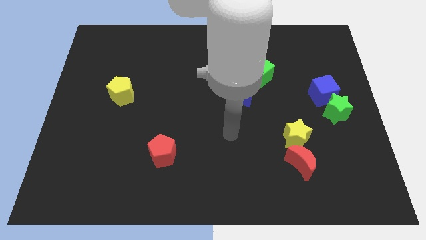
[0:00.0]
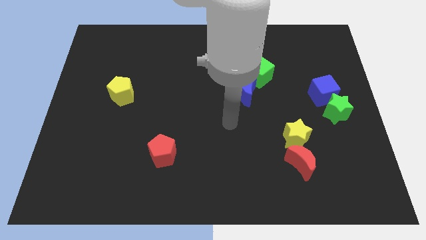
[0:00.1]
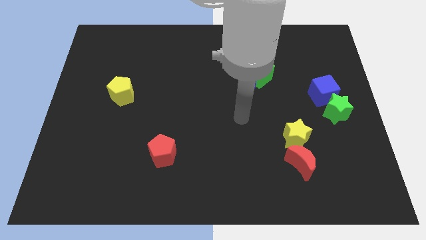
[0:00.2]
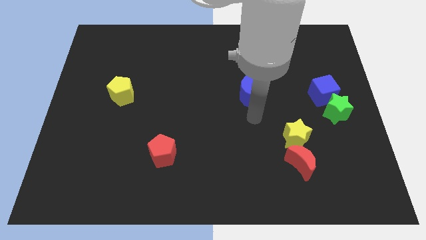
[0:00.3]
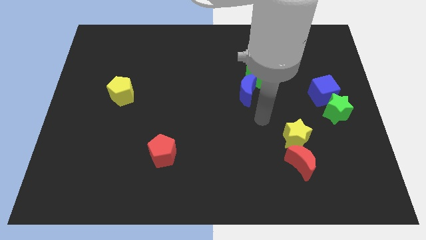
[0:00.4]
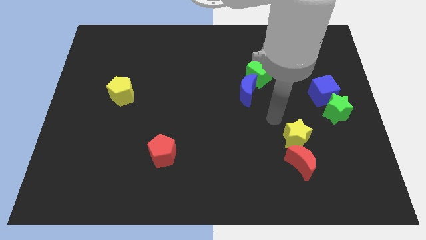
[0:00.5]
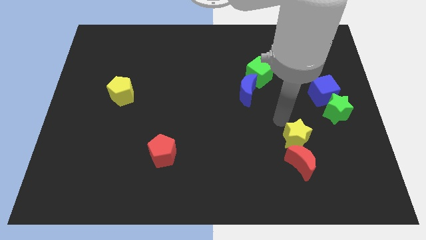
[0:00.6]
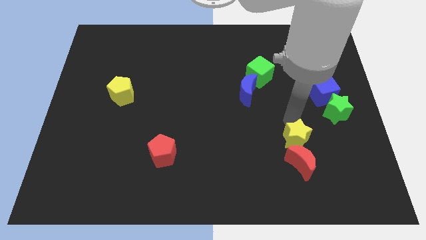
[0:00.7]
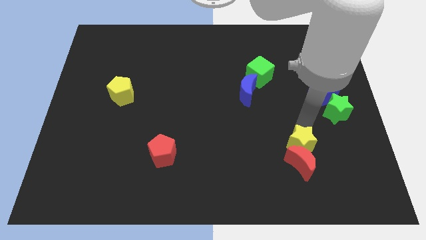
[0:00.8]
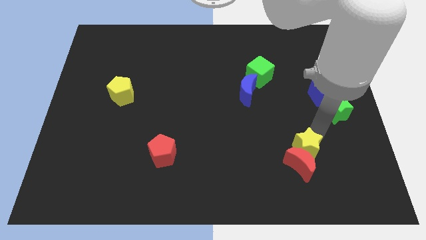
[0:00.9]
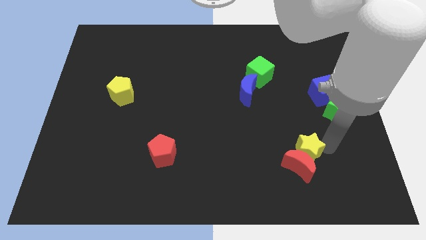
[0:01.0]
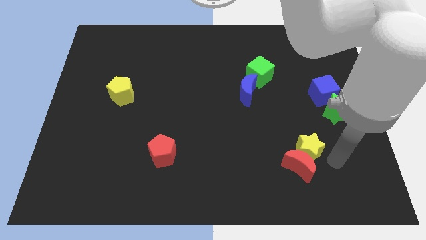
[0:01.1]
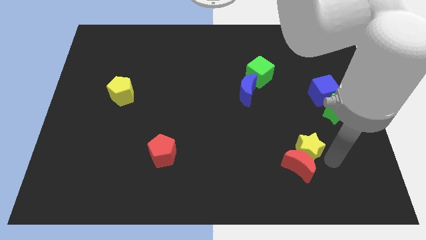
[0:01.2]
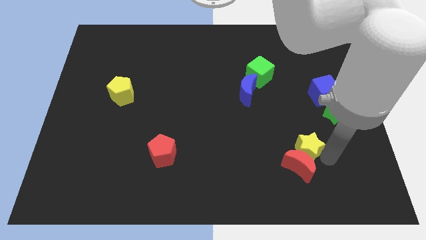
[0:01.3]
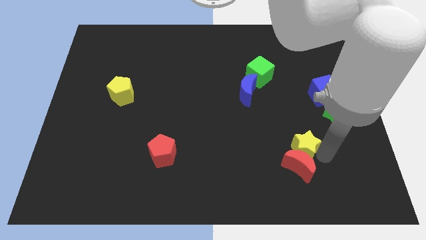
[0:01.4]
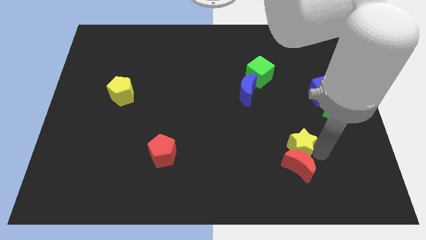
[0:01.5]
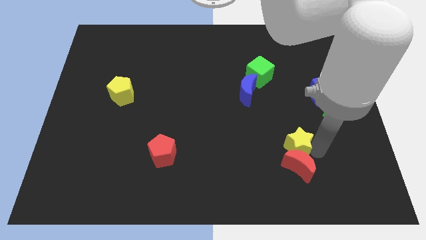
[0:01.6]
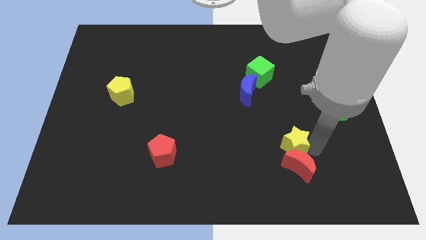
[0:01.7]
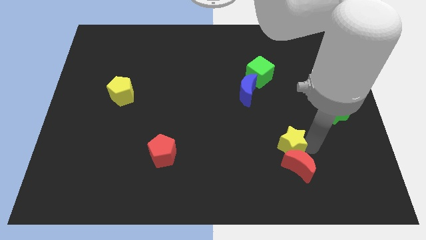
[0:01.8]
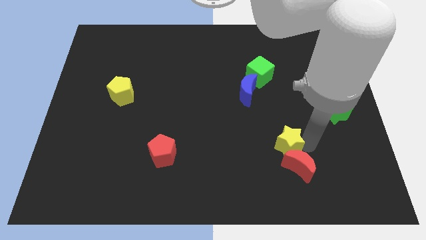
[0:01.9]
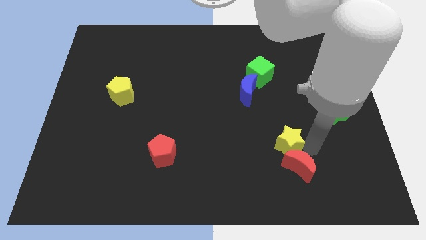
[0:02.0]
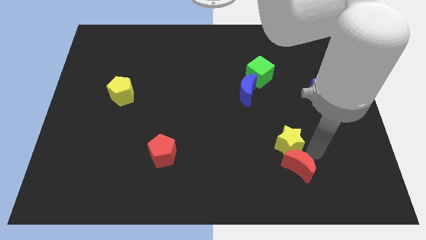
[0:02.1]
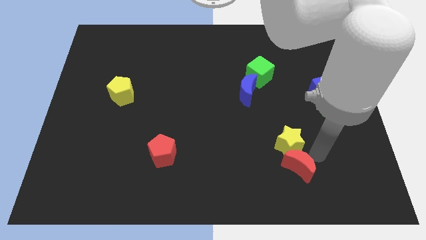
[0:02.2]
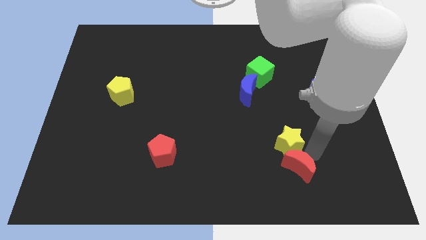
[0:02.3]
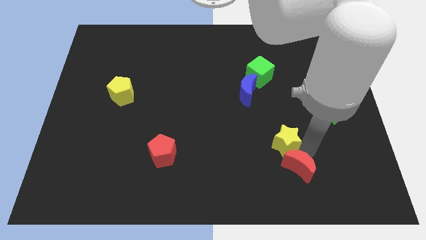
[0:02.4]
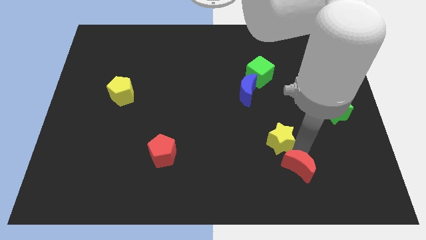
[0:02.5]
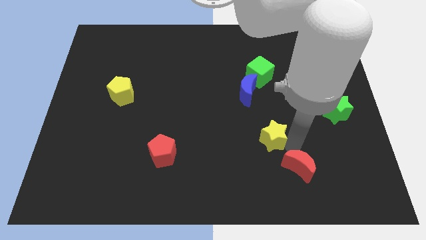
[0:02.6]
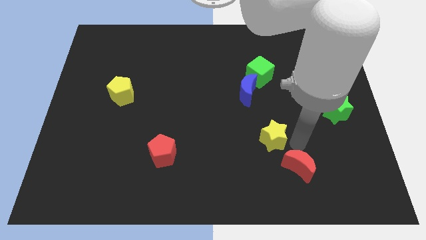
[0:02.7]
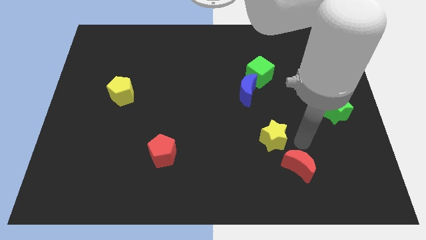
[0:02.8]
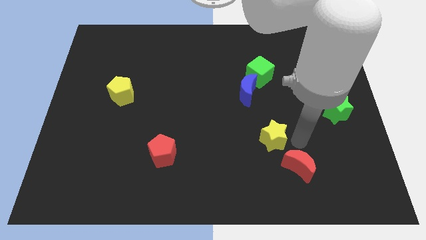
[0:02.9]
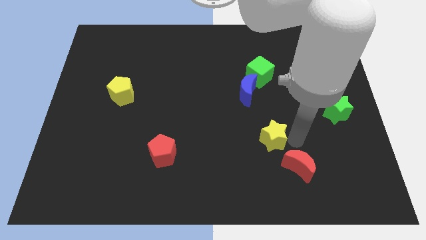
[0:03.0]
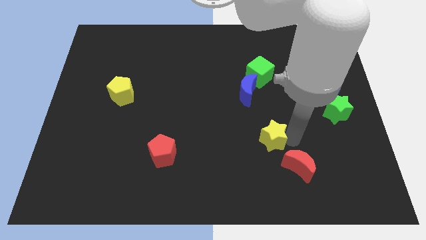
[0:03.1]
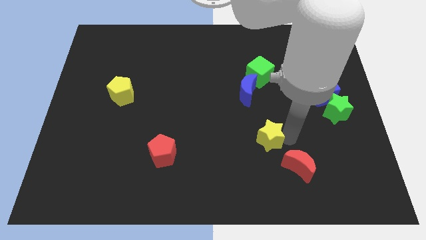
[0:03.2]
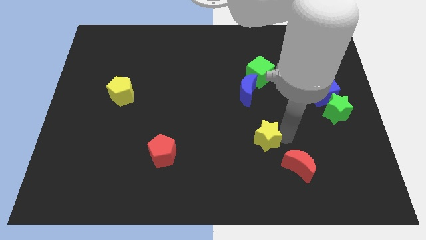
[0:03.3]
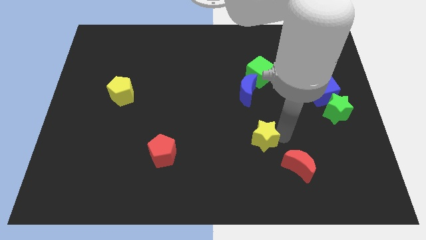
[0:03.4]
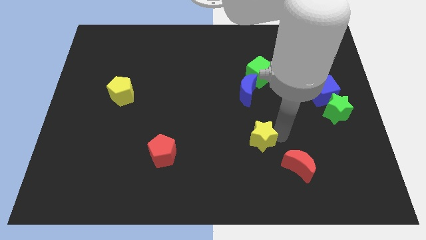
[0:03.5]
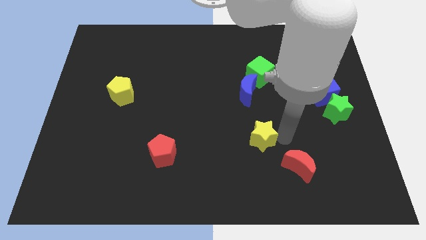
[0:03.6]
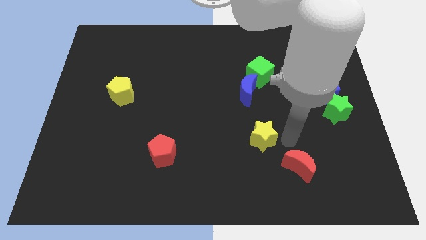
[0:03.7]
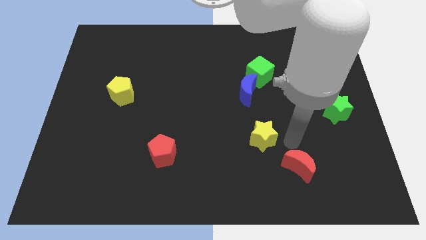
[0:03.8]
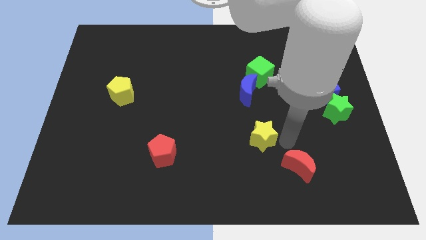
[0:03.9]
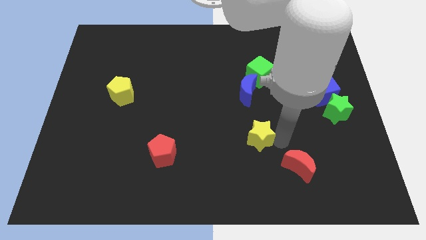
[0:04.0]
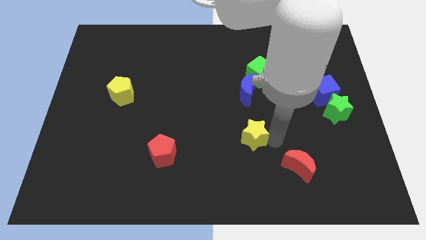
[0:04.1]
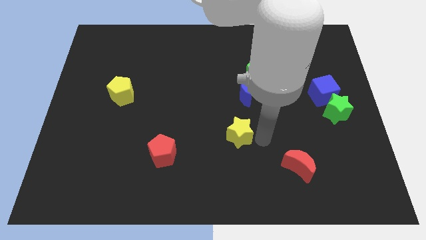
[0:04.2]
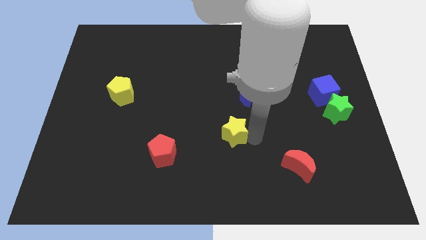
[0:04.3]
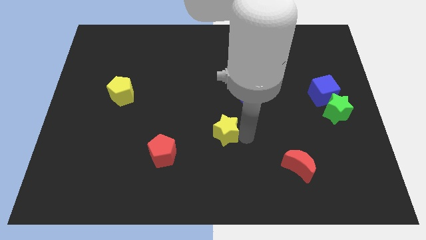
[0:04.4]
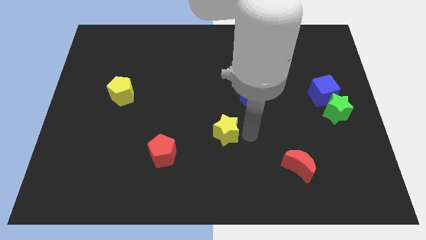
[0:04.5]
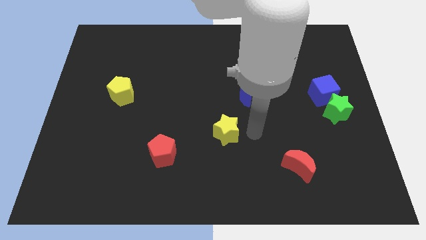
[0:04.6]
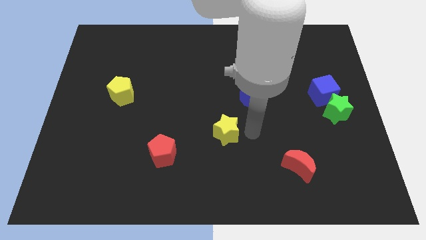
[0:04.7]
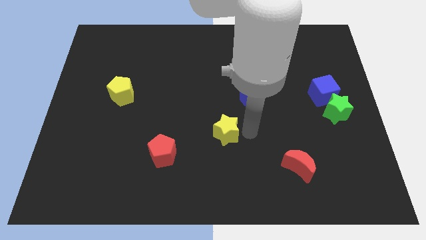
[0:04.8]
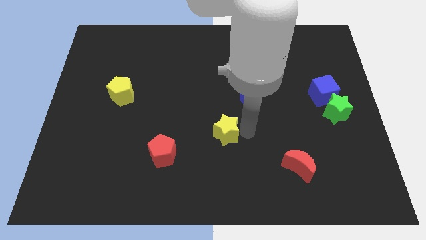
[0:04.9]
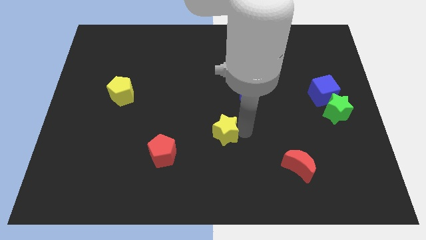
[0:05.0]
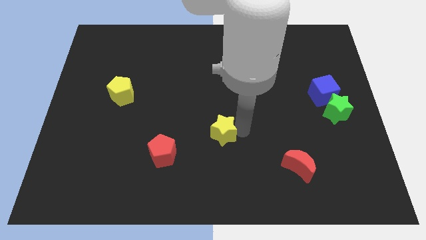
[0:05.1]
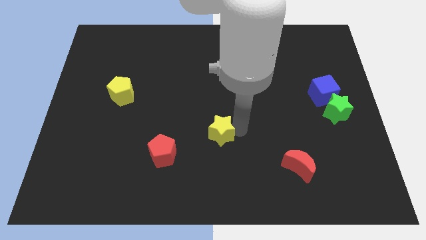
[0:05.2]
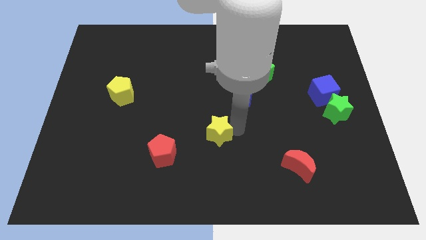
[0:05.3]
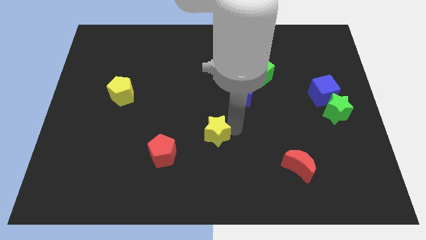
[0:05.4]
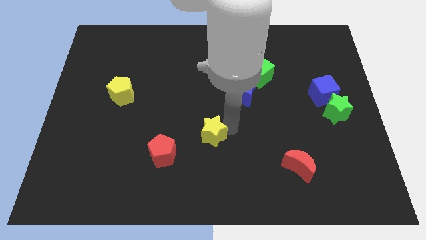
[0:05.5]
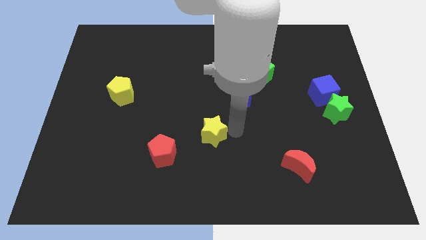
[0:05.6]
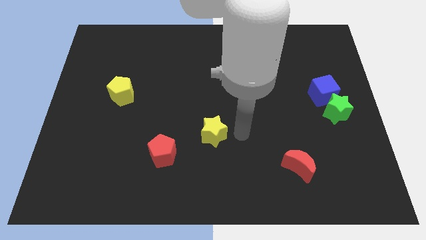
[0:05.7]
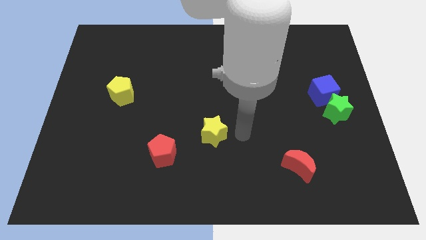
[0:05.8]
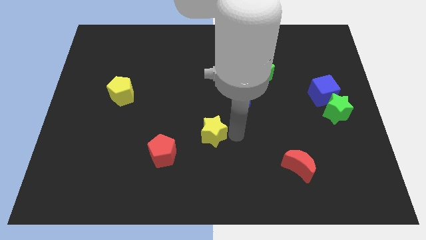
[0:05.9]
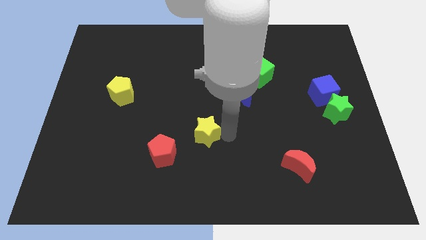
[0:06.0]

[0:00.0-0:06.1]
move the yellow star to the left

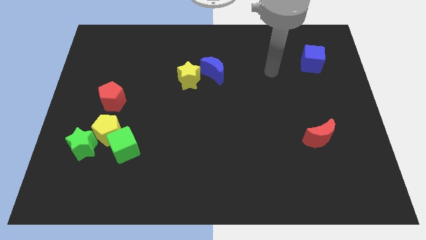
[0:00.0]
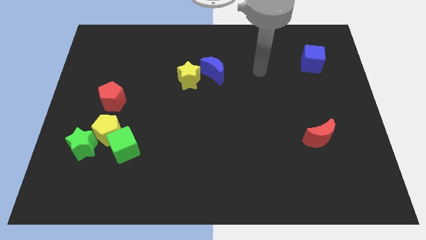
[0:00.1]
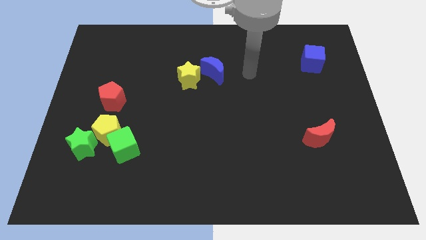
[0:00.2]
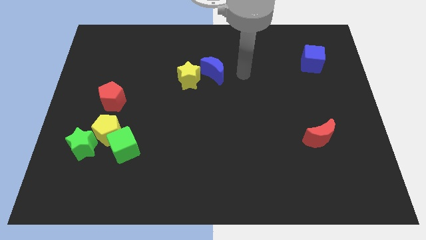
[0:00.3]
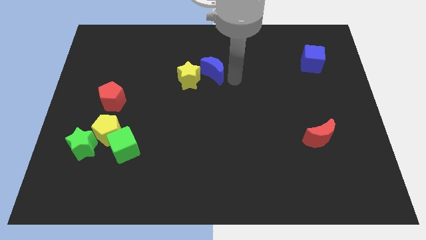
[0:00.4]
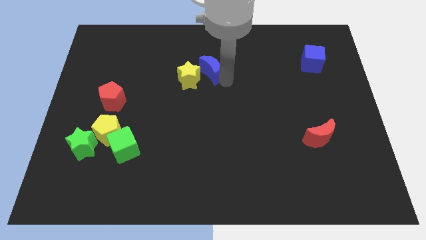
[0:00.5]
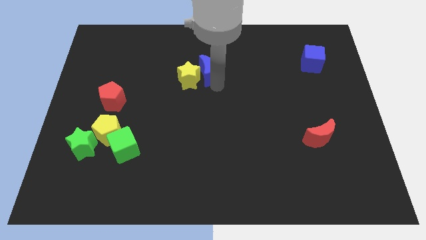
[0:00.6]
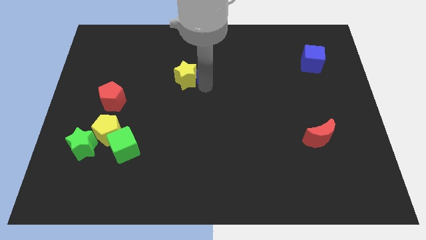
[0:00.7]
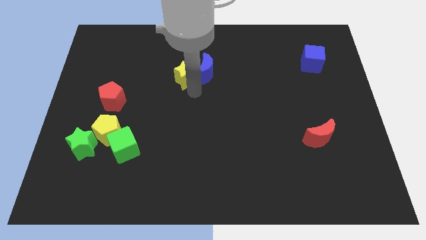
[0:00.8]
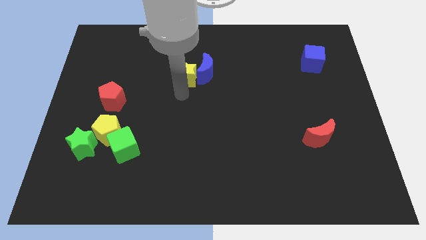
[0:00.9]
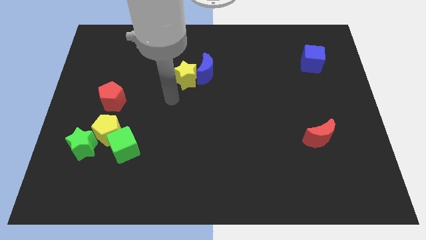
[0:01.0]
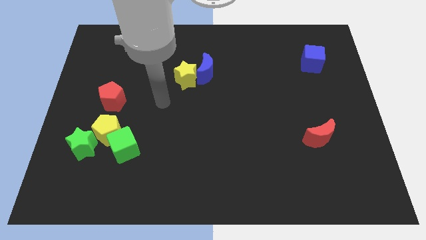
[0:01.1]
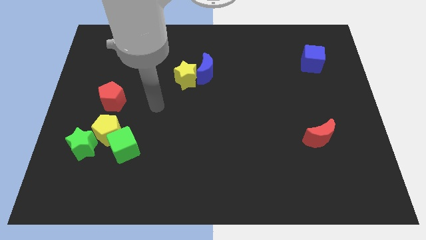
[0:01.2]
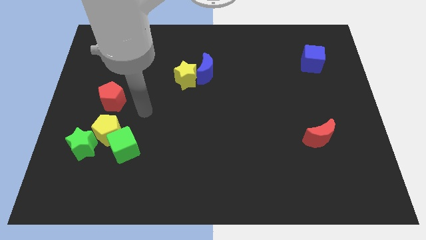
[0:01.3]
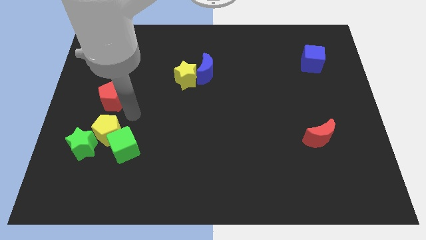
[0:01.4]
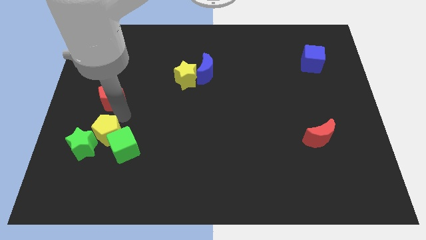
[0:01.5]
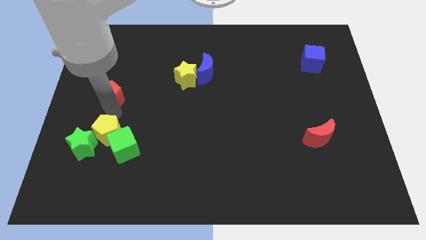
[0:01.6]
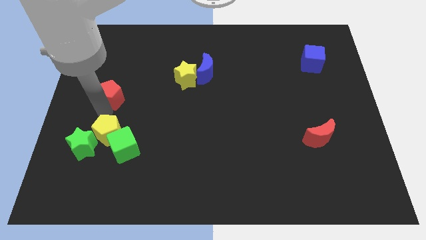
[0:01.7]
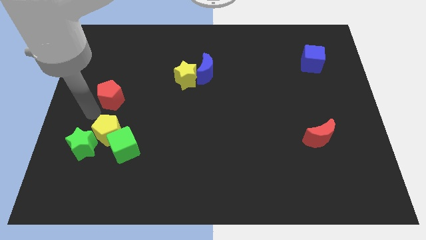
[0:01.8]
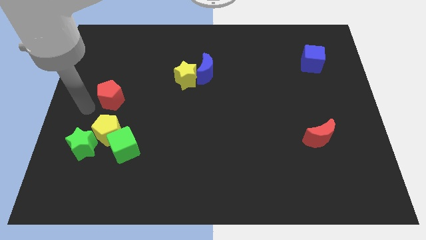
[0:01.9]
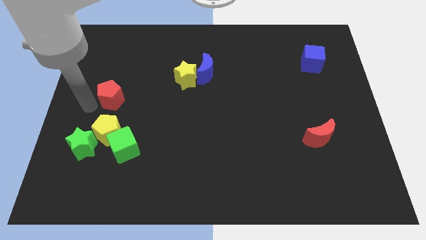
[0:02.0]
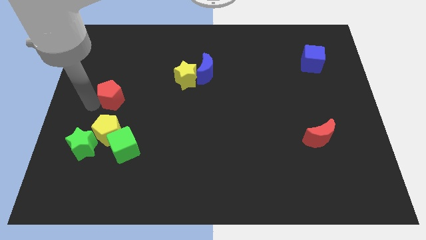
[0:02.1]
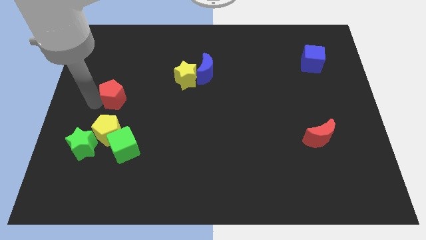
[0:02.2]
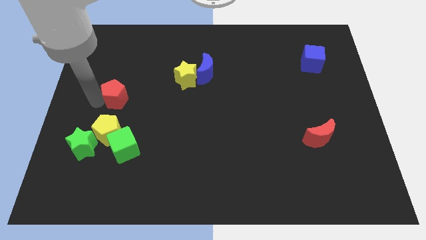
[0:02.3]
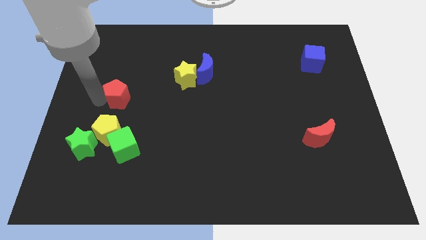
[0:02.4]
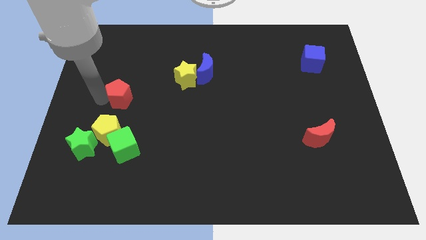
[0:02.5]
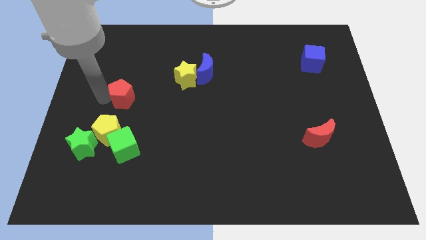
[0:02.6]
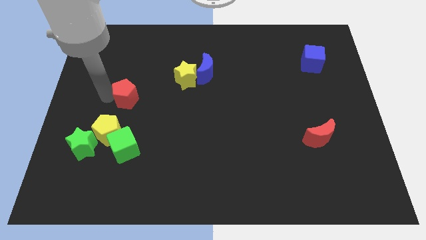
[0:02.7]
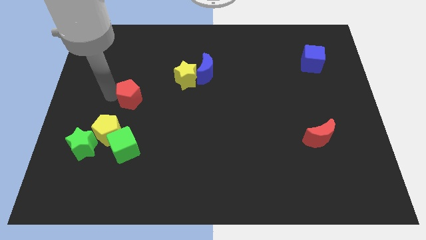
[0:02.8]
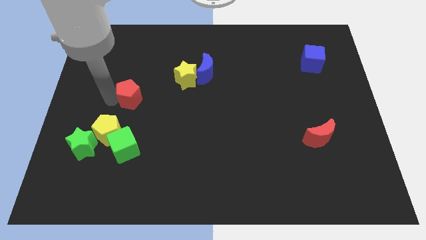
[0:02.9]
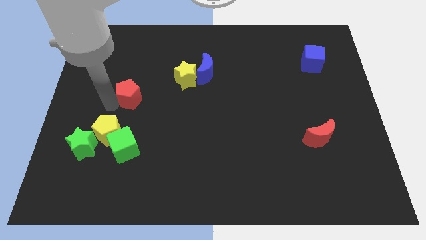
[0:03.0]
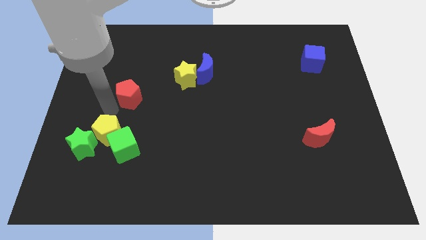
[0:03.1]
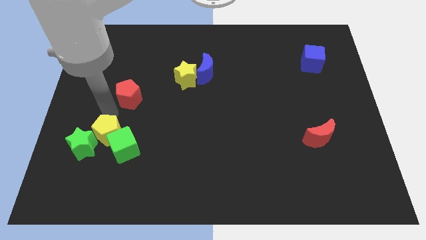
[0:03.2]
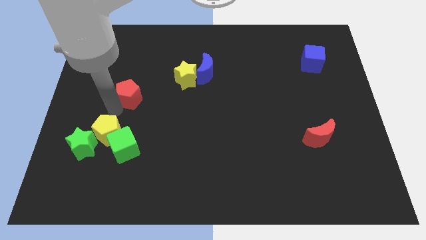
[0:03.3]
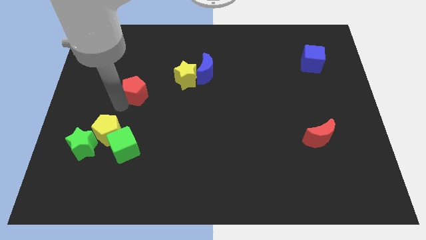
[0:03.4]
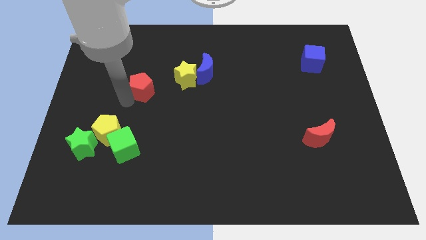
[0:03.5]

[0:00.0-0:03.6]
slightly push the red pentagon diagonally upwards and right
